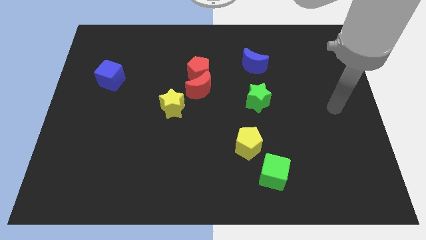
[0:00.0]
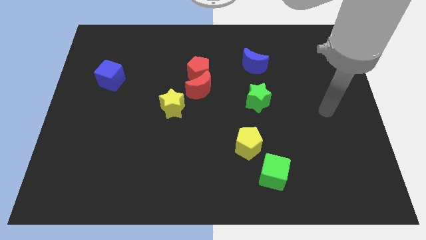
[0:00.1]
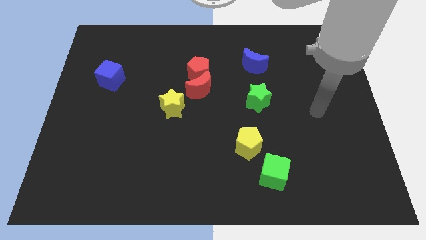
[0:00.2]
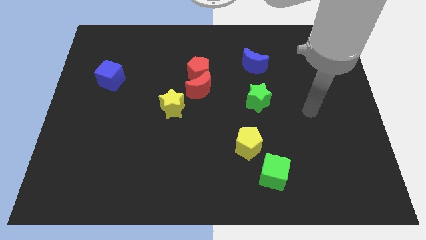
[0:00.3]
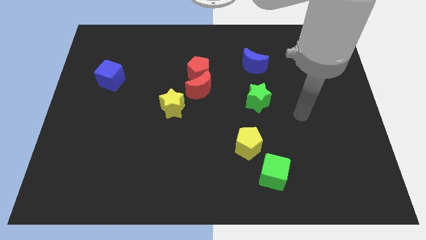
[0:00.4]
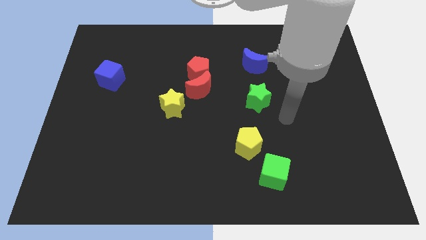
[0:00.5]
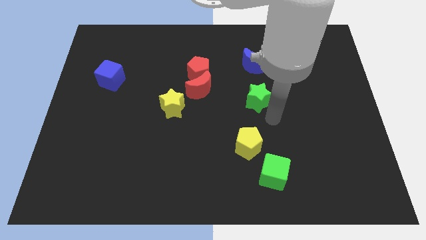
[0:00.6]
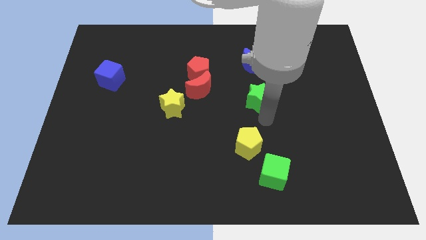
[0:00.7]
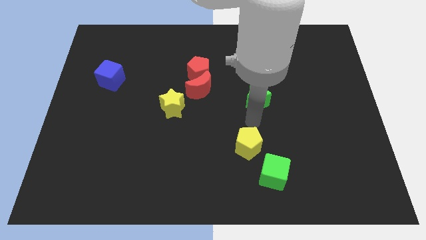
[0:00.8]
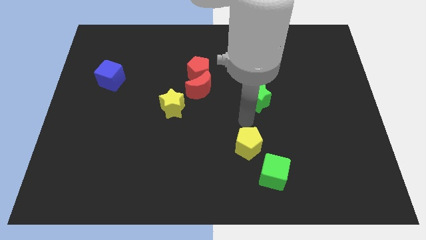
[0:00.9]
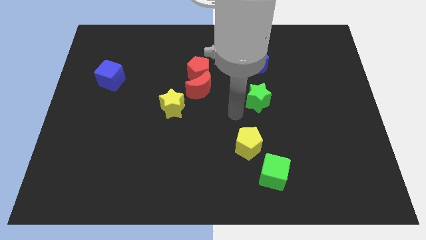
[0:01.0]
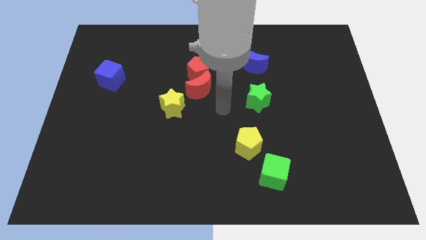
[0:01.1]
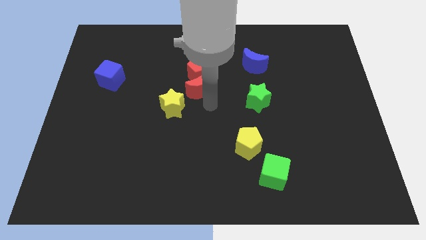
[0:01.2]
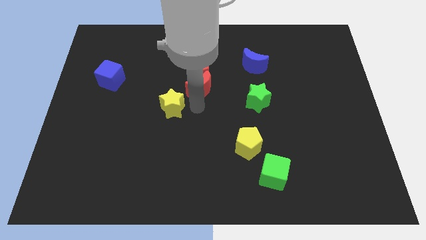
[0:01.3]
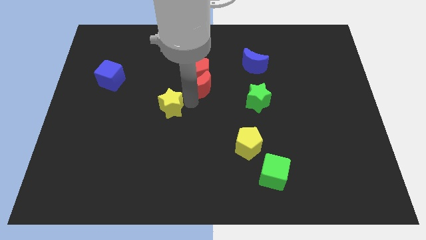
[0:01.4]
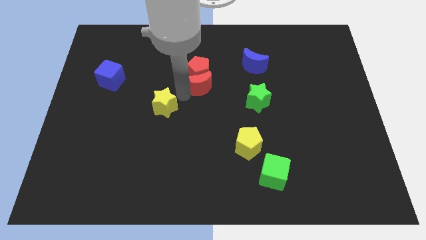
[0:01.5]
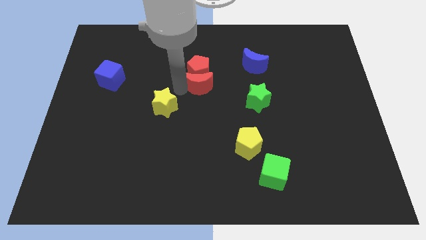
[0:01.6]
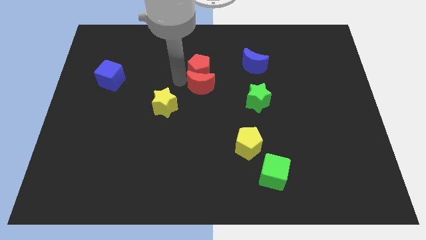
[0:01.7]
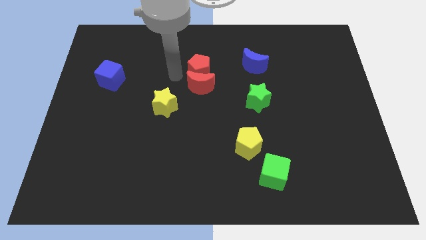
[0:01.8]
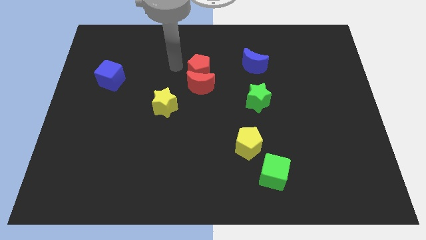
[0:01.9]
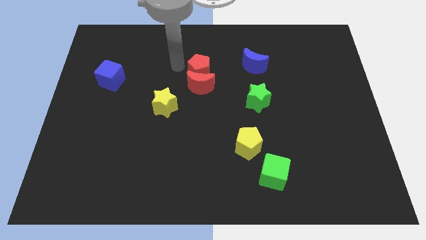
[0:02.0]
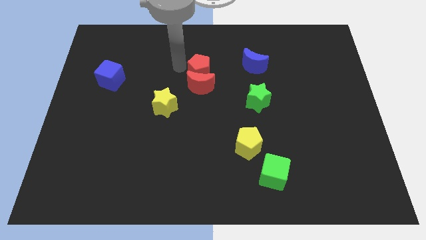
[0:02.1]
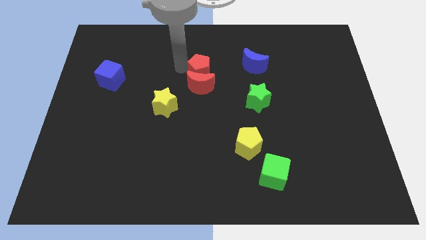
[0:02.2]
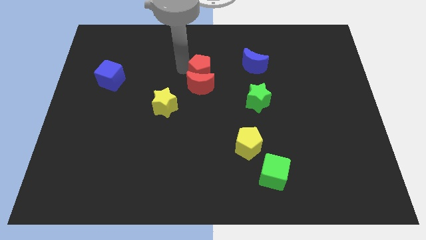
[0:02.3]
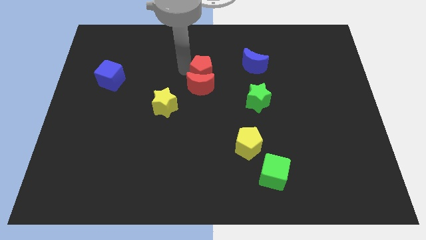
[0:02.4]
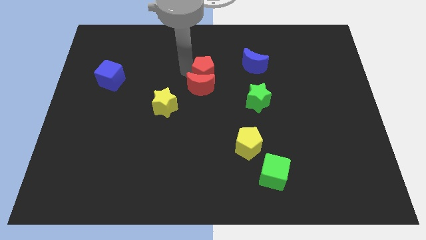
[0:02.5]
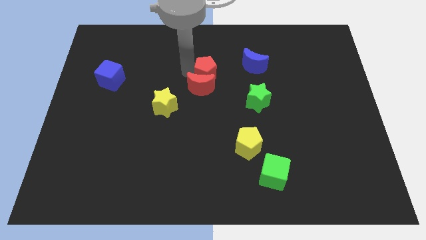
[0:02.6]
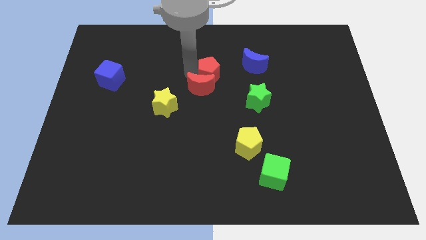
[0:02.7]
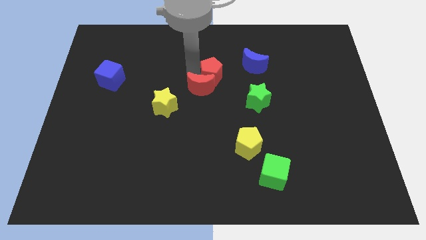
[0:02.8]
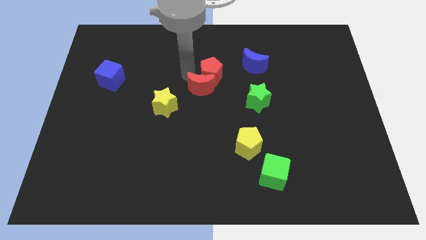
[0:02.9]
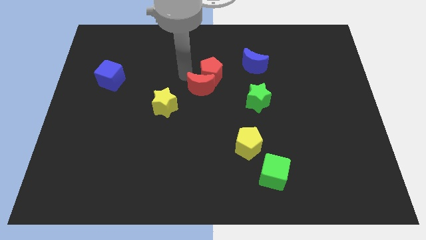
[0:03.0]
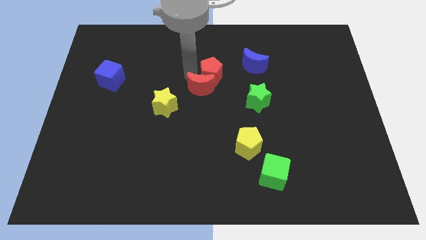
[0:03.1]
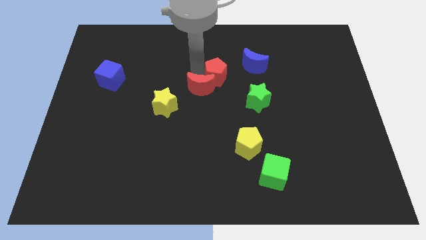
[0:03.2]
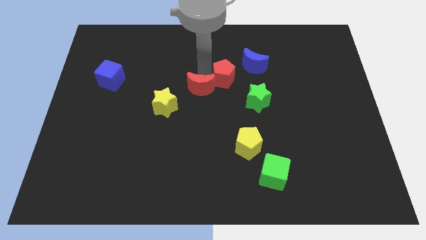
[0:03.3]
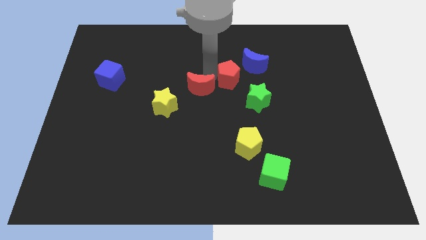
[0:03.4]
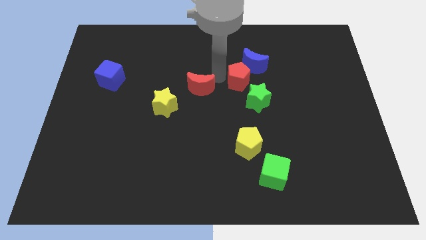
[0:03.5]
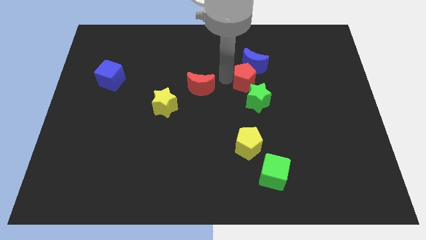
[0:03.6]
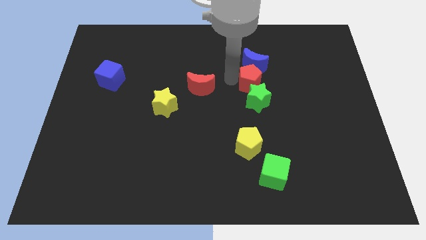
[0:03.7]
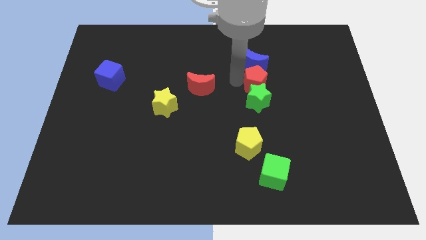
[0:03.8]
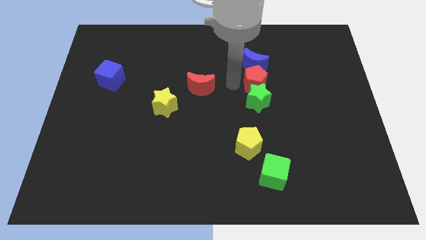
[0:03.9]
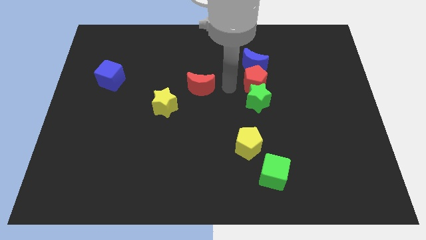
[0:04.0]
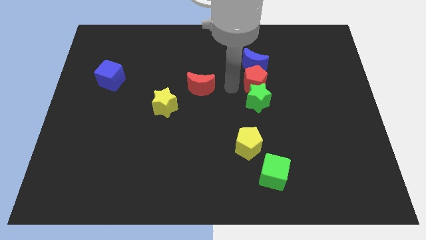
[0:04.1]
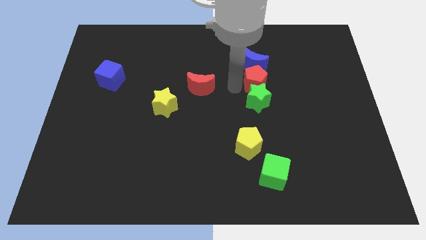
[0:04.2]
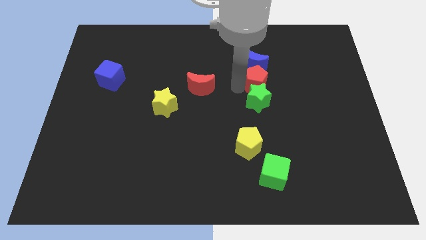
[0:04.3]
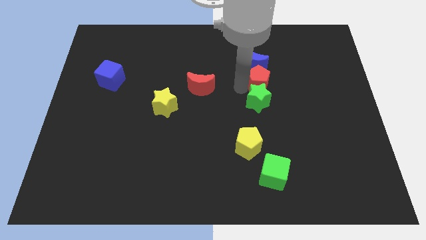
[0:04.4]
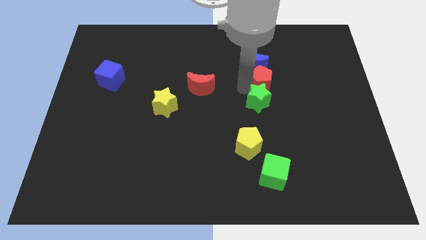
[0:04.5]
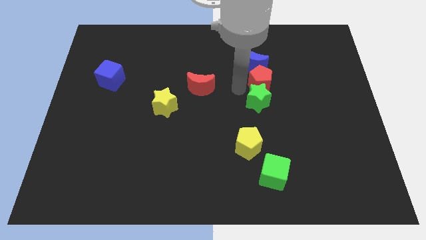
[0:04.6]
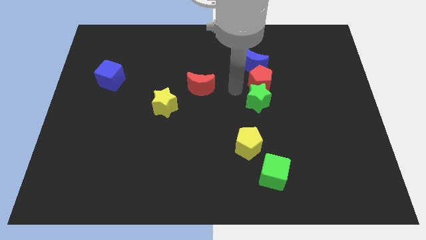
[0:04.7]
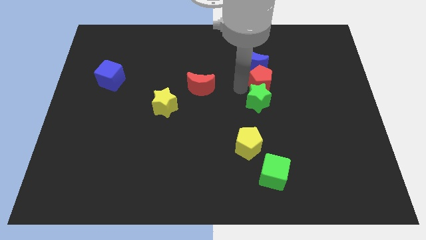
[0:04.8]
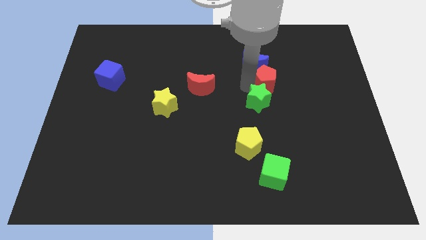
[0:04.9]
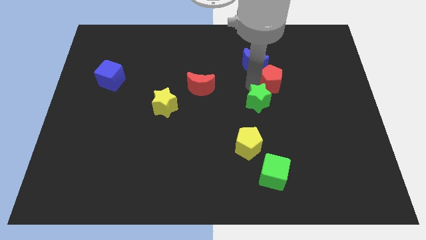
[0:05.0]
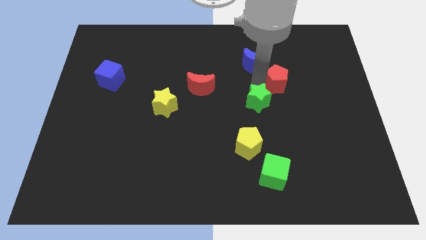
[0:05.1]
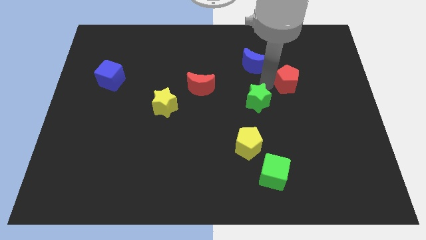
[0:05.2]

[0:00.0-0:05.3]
slide the red pentagon to the right

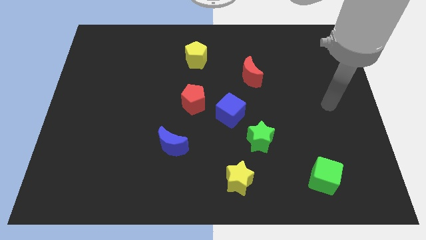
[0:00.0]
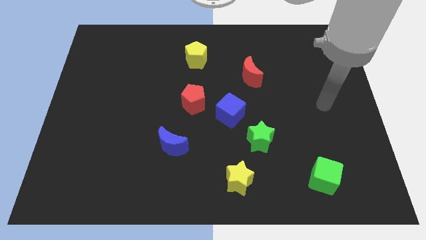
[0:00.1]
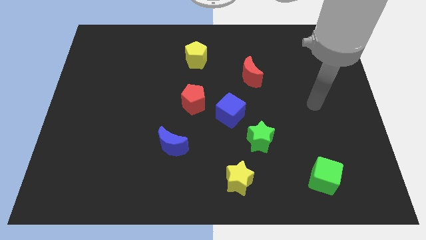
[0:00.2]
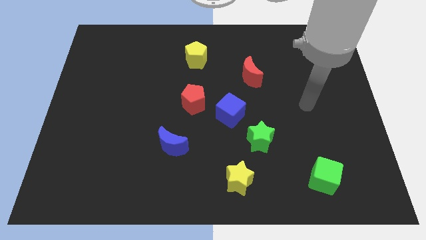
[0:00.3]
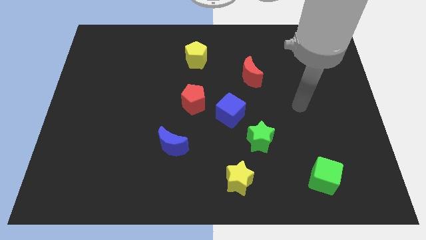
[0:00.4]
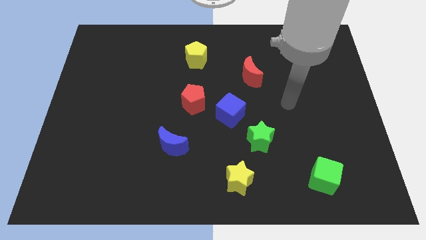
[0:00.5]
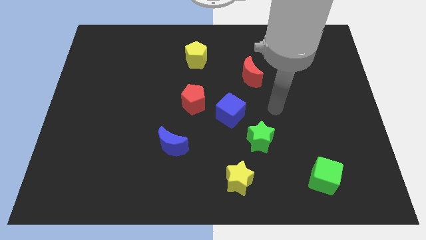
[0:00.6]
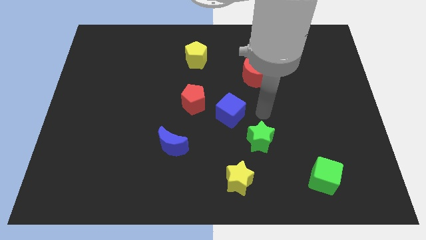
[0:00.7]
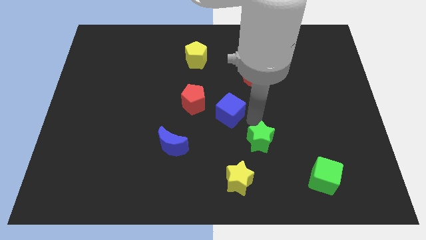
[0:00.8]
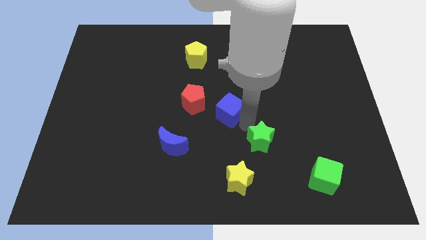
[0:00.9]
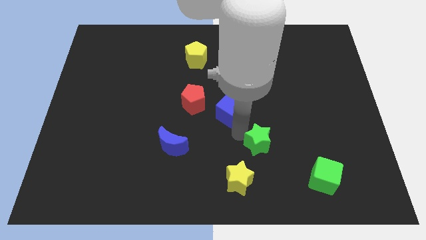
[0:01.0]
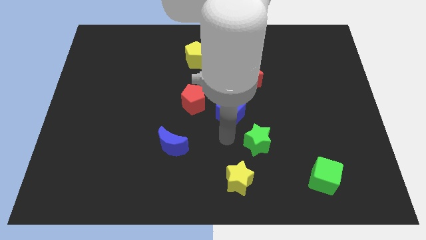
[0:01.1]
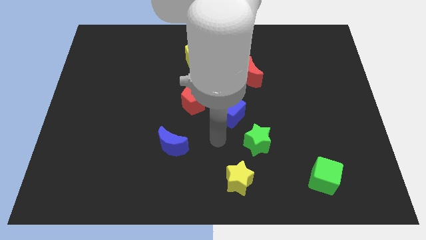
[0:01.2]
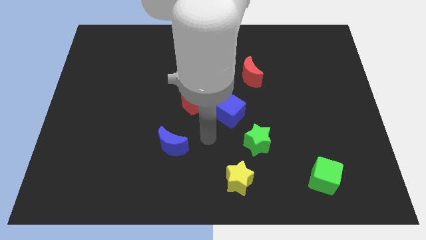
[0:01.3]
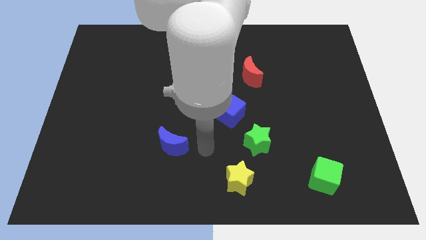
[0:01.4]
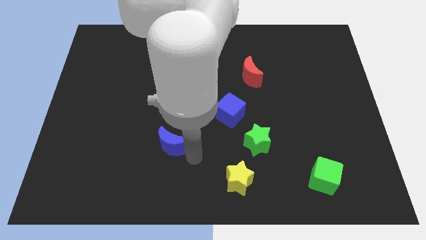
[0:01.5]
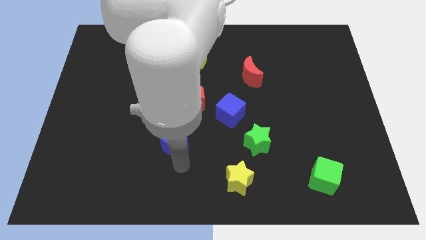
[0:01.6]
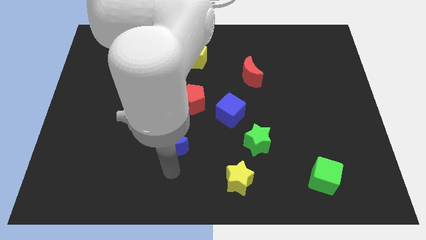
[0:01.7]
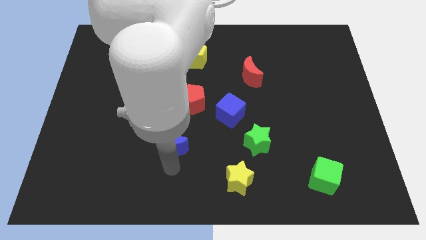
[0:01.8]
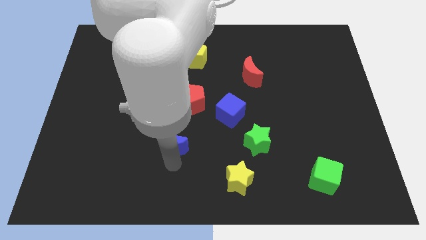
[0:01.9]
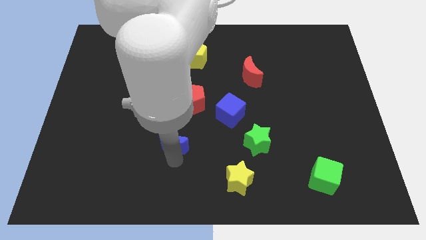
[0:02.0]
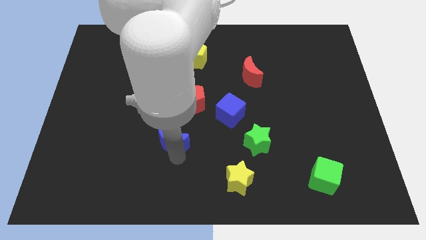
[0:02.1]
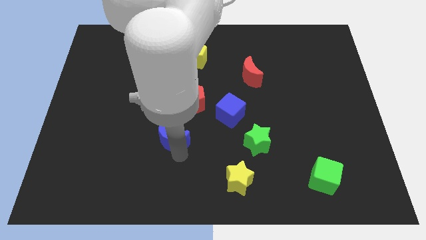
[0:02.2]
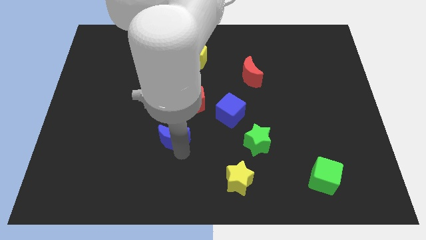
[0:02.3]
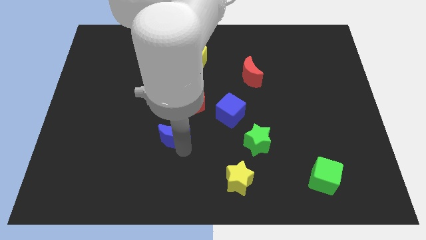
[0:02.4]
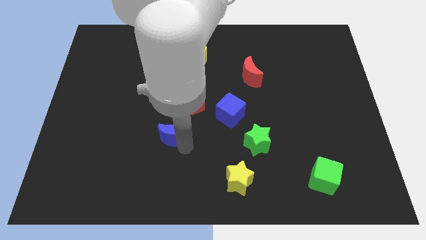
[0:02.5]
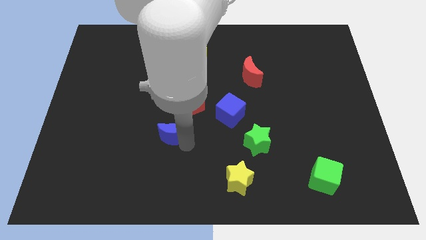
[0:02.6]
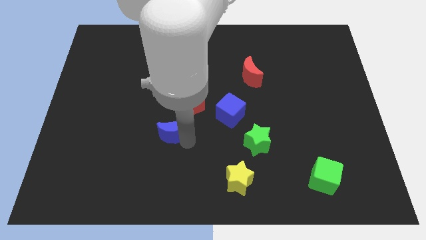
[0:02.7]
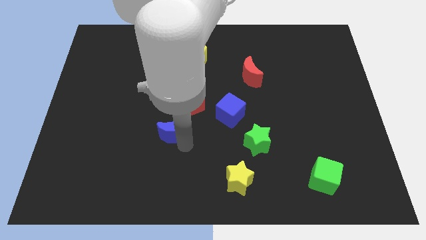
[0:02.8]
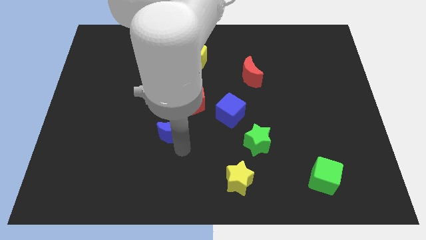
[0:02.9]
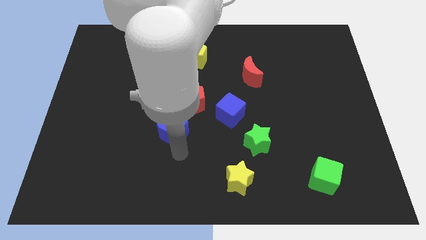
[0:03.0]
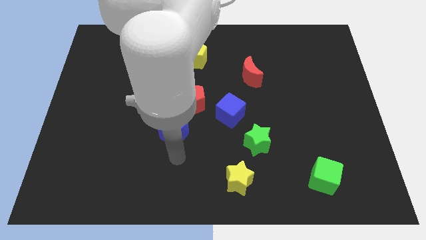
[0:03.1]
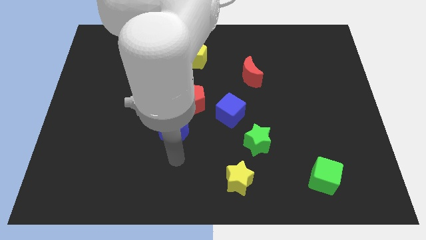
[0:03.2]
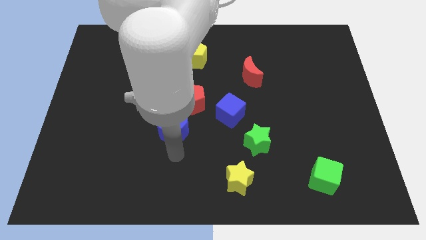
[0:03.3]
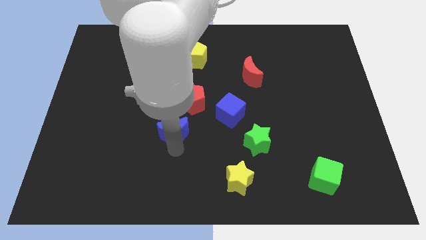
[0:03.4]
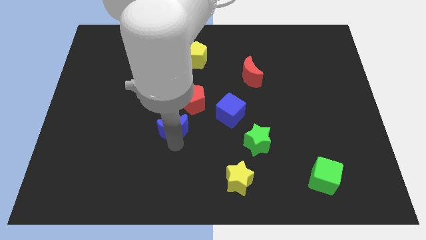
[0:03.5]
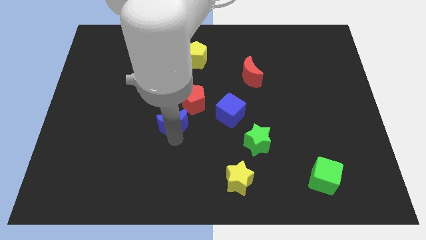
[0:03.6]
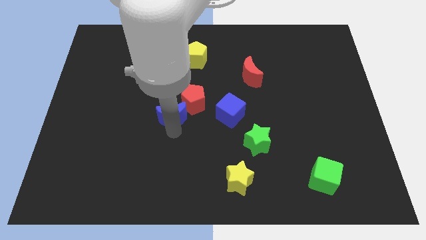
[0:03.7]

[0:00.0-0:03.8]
slightly slide the blue moon upwards
